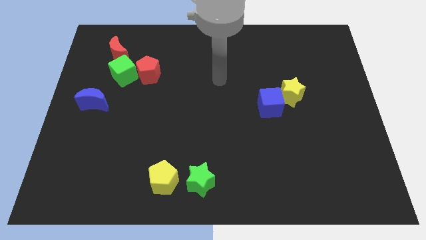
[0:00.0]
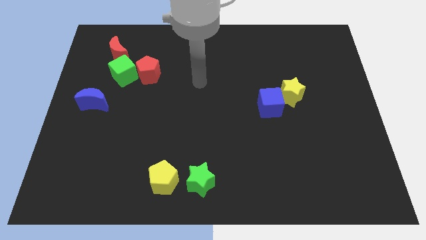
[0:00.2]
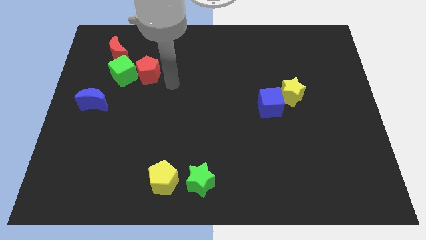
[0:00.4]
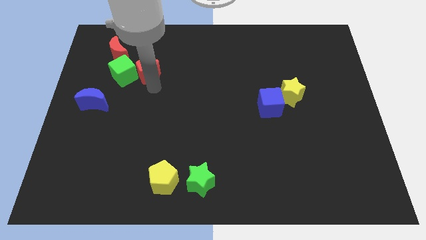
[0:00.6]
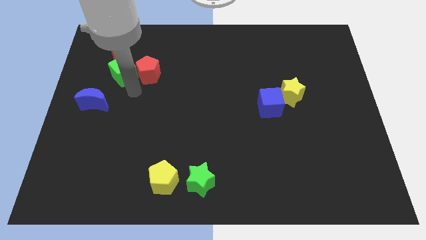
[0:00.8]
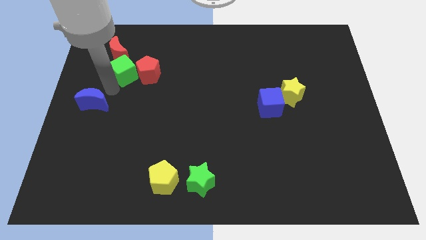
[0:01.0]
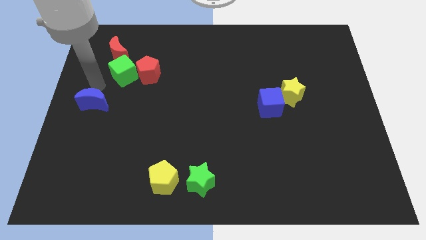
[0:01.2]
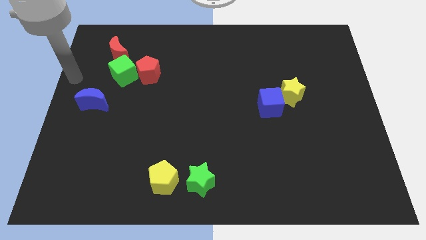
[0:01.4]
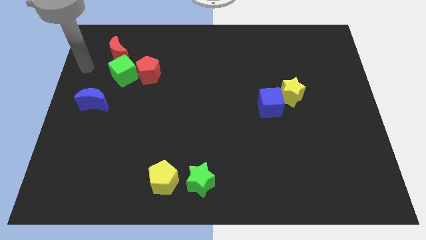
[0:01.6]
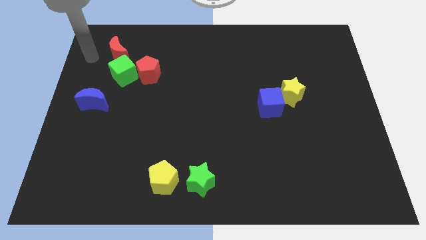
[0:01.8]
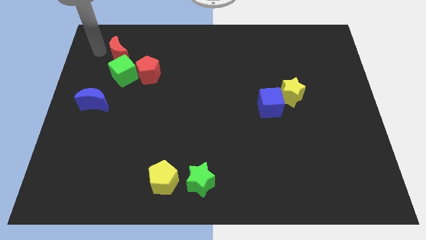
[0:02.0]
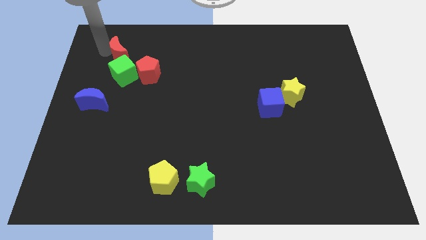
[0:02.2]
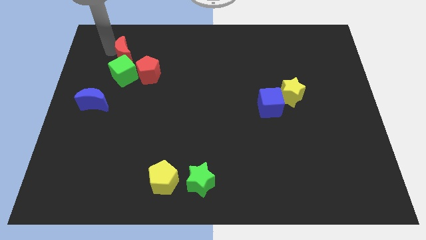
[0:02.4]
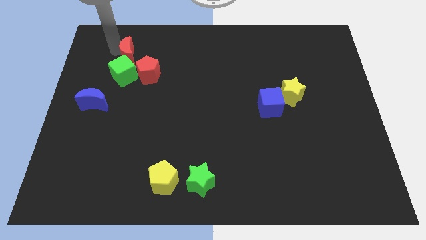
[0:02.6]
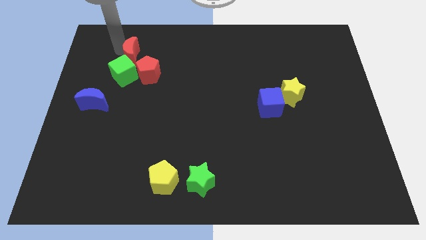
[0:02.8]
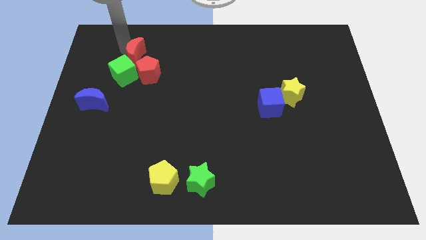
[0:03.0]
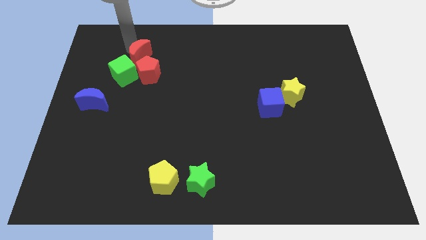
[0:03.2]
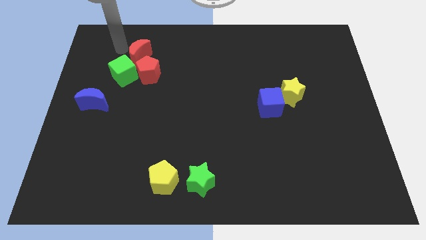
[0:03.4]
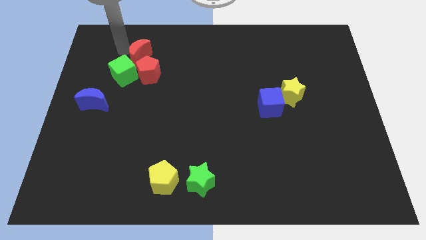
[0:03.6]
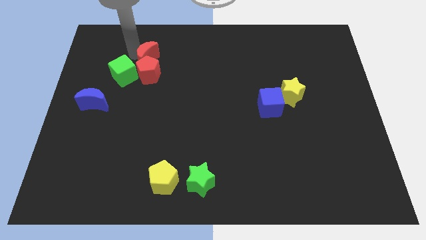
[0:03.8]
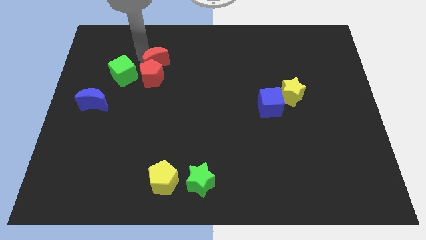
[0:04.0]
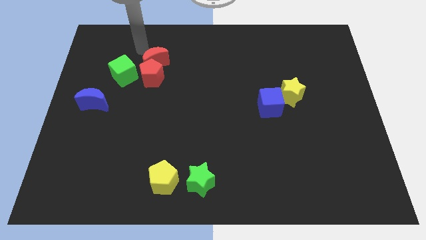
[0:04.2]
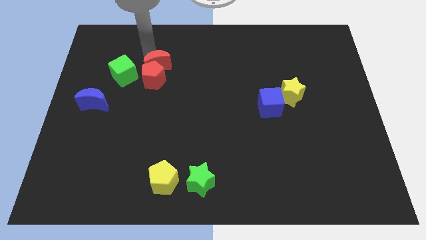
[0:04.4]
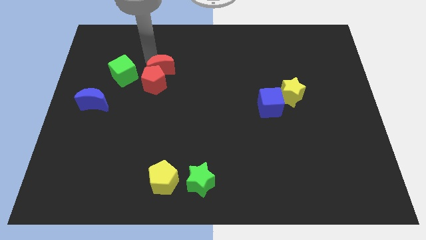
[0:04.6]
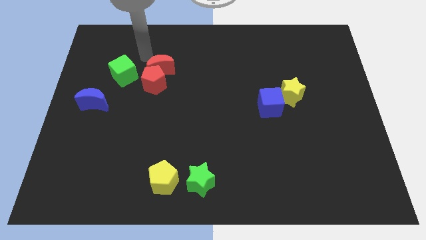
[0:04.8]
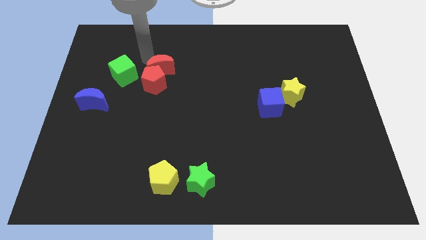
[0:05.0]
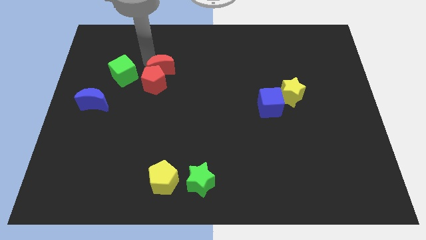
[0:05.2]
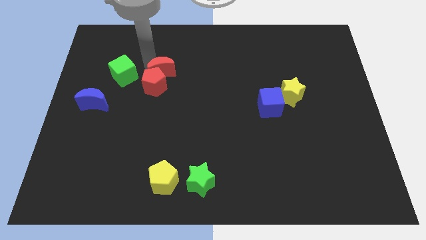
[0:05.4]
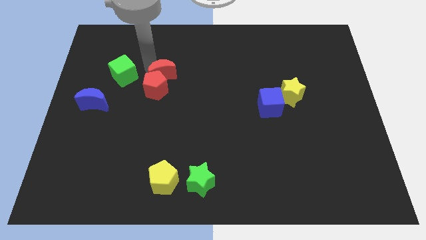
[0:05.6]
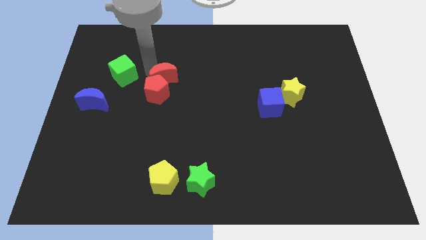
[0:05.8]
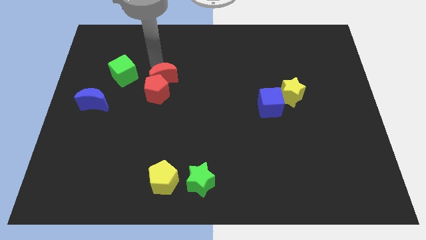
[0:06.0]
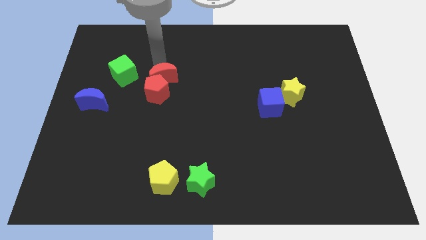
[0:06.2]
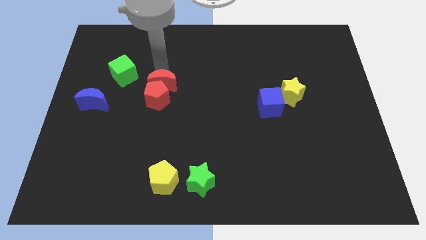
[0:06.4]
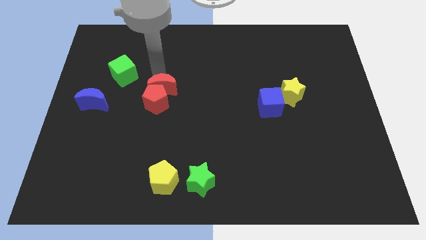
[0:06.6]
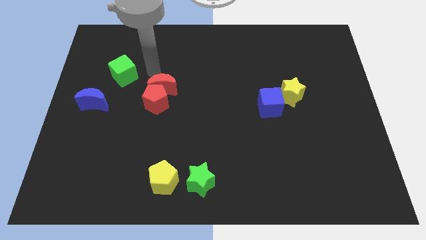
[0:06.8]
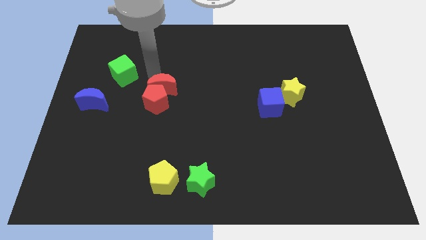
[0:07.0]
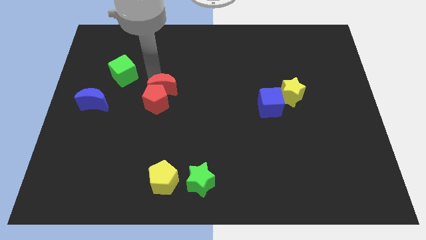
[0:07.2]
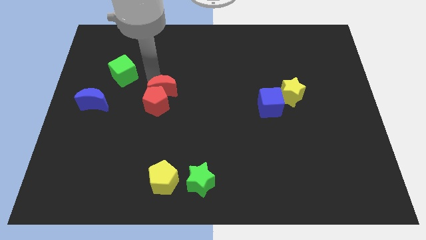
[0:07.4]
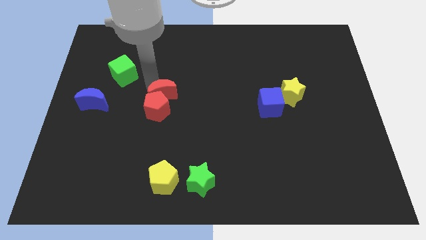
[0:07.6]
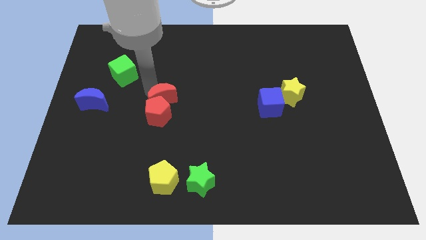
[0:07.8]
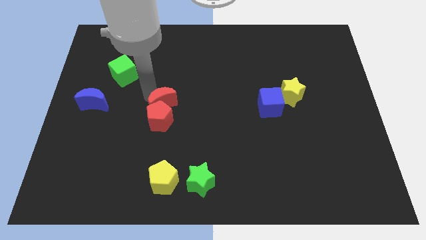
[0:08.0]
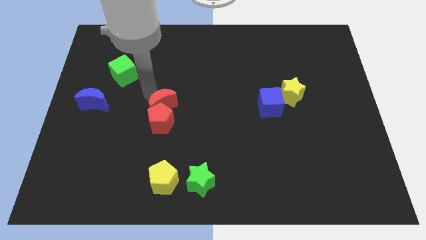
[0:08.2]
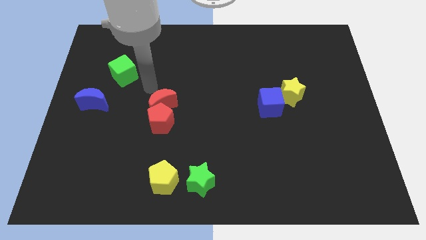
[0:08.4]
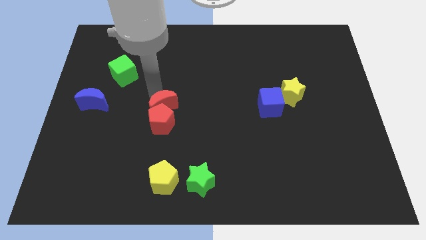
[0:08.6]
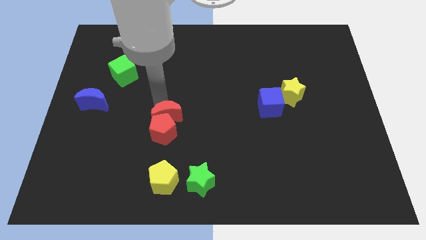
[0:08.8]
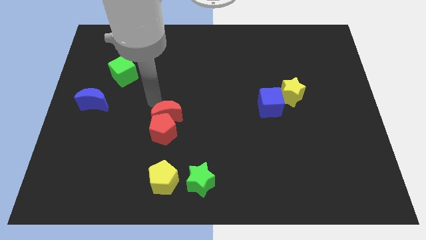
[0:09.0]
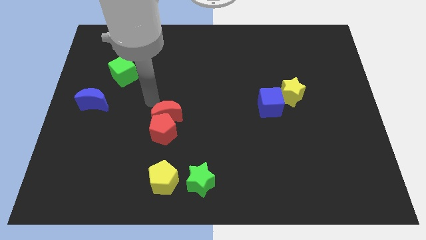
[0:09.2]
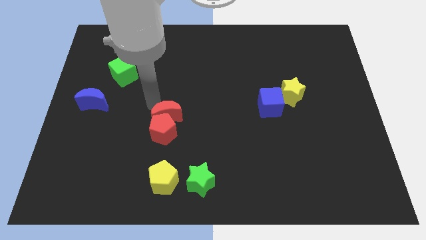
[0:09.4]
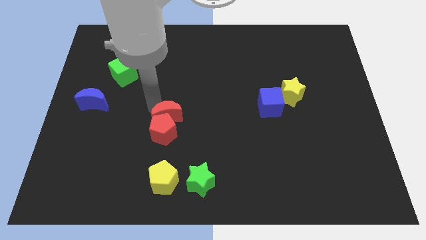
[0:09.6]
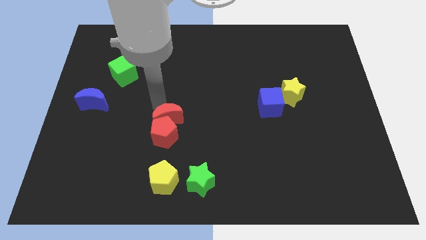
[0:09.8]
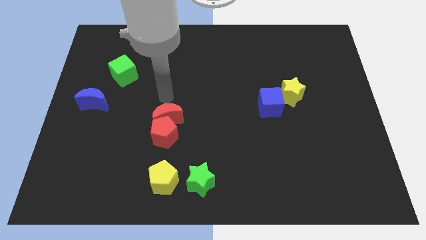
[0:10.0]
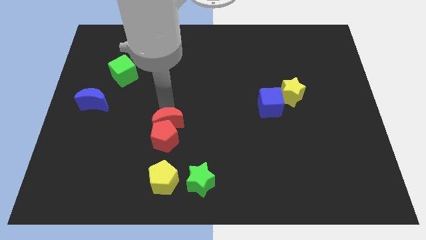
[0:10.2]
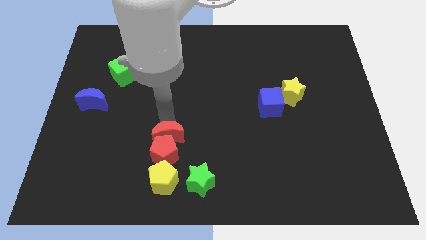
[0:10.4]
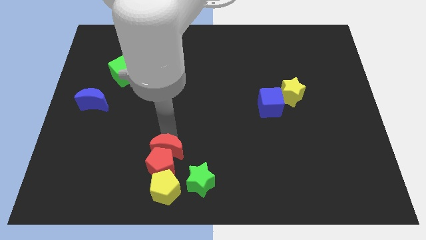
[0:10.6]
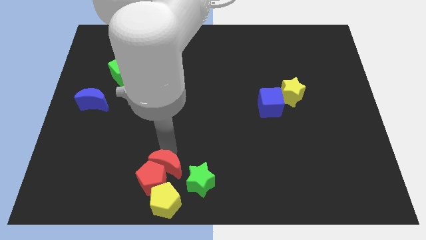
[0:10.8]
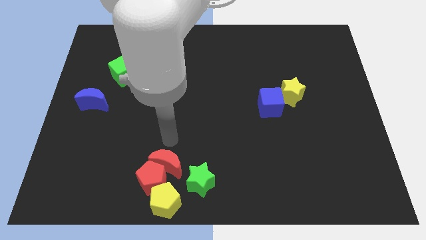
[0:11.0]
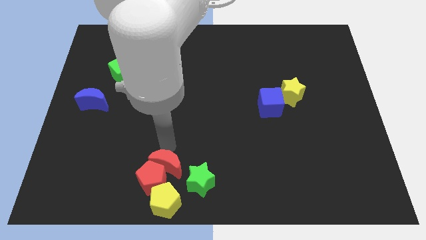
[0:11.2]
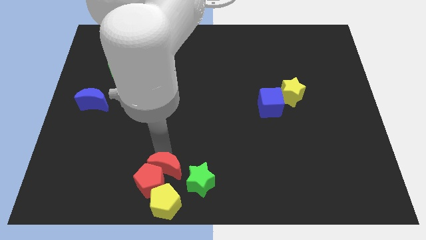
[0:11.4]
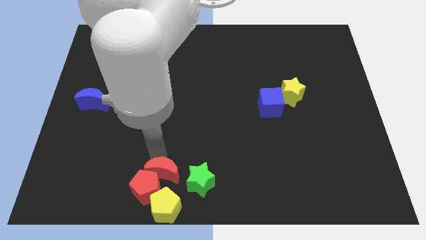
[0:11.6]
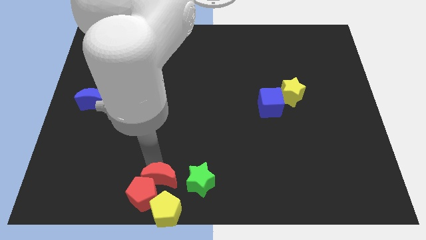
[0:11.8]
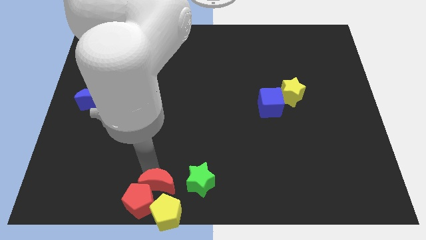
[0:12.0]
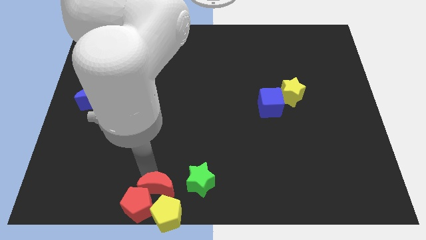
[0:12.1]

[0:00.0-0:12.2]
push the red moon to the yellow pentagon

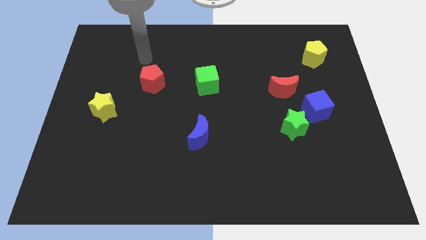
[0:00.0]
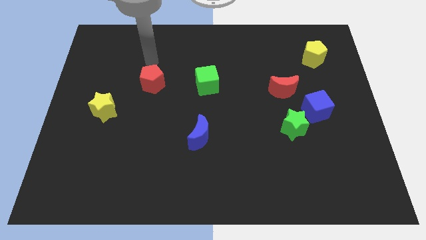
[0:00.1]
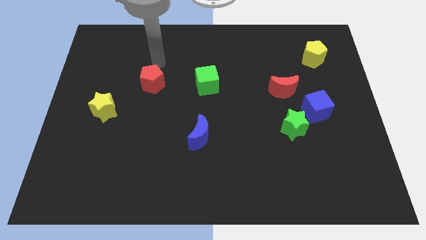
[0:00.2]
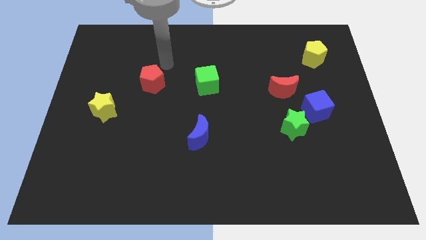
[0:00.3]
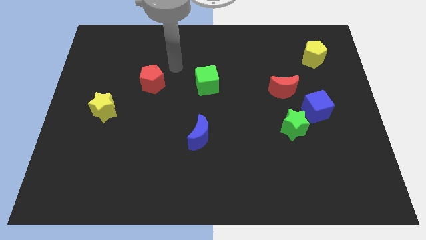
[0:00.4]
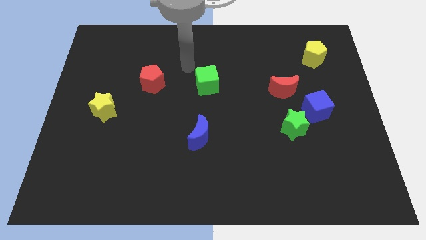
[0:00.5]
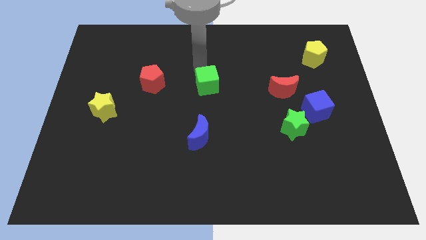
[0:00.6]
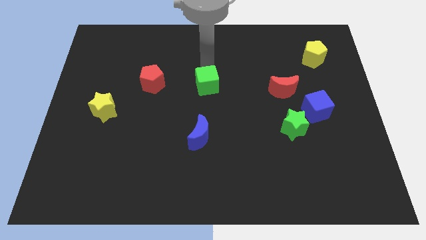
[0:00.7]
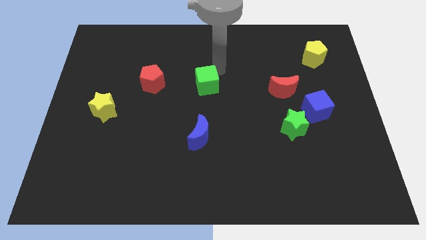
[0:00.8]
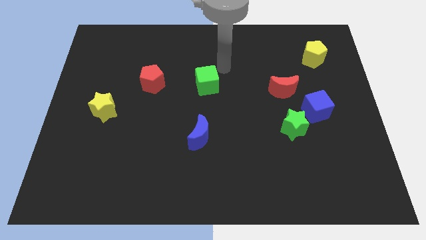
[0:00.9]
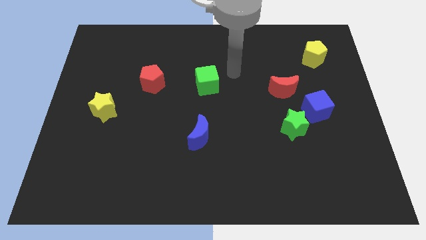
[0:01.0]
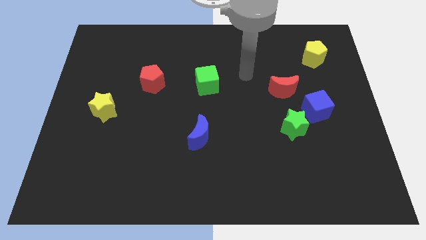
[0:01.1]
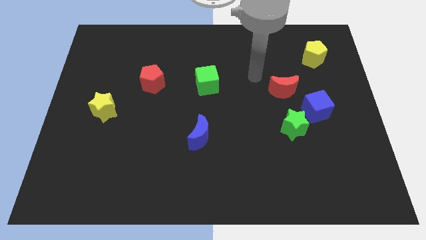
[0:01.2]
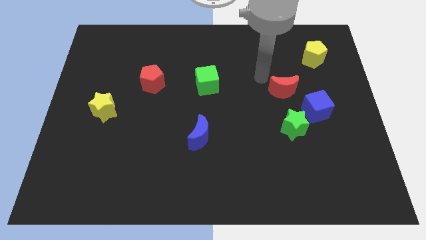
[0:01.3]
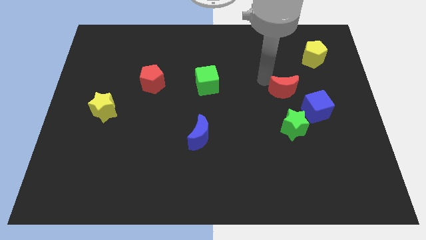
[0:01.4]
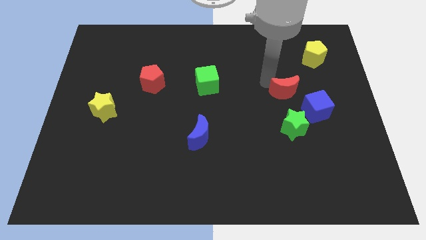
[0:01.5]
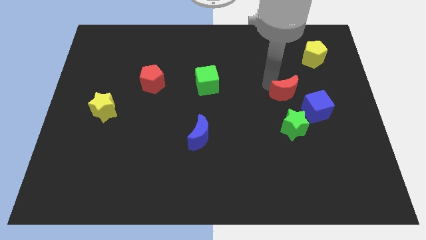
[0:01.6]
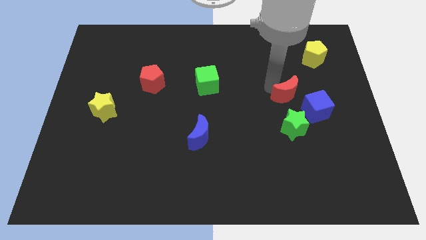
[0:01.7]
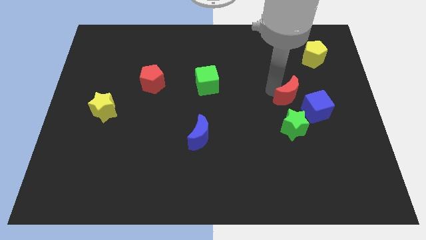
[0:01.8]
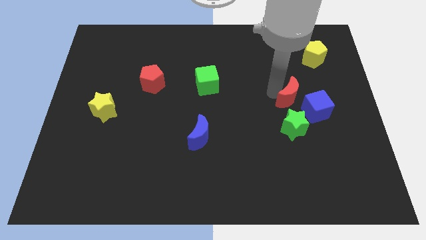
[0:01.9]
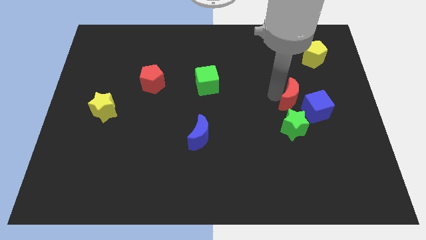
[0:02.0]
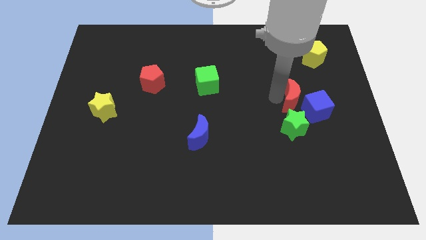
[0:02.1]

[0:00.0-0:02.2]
put the red moon next to the blue cube
